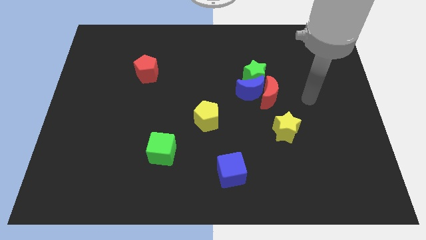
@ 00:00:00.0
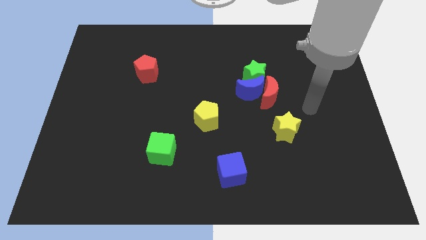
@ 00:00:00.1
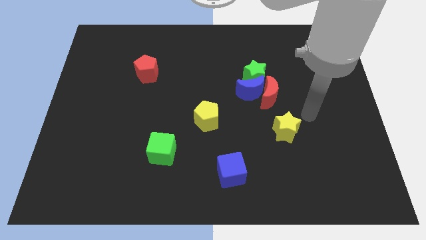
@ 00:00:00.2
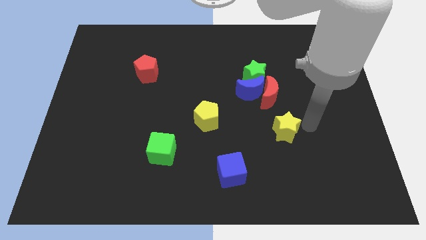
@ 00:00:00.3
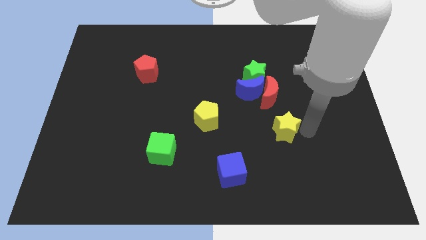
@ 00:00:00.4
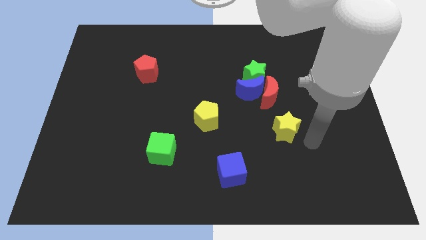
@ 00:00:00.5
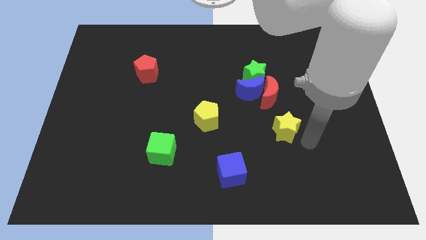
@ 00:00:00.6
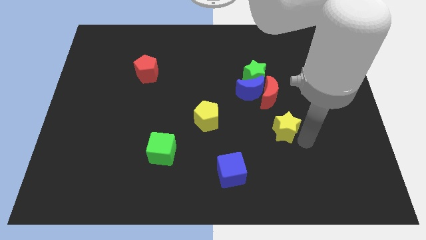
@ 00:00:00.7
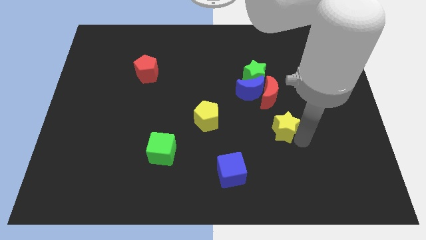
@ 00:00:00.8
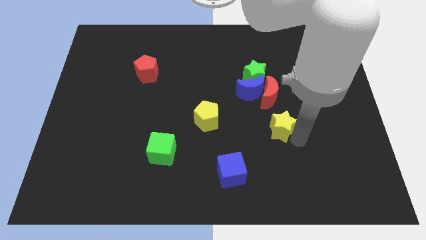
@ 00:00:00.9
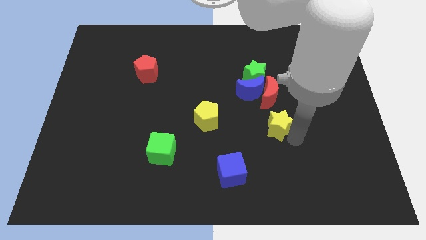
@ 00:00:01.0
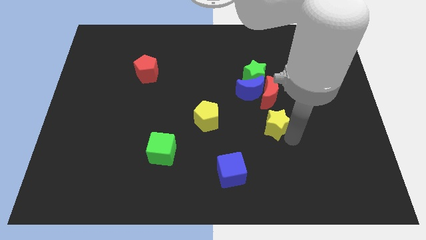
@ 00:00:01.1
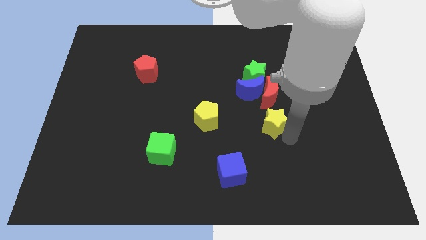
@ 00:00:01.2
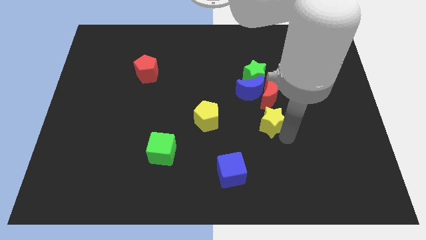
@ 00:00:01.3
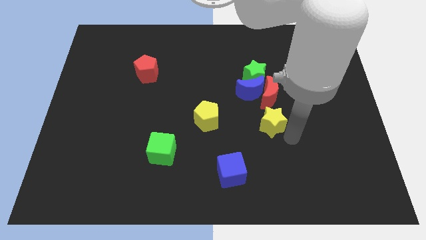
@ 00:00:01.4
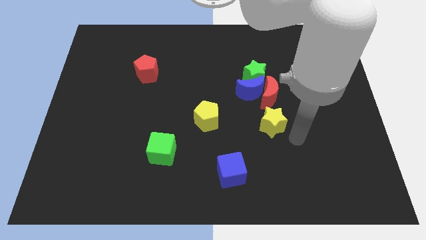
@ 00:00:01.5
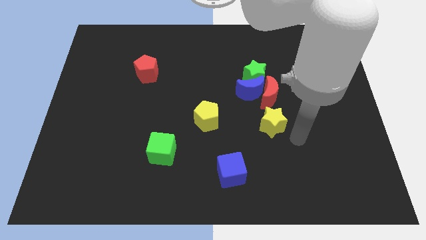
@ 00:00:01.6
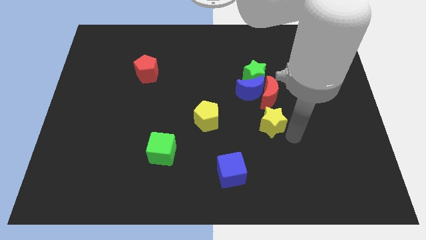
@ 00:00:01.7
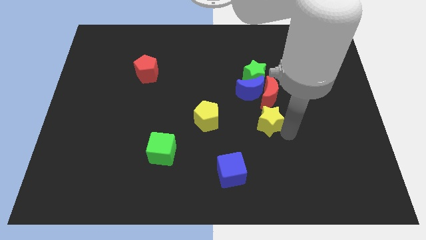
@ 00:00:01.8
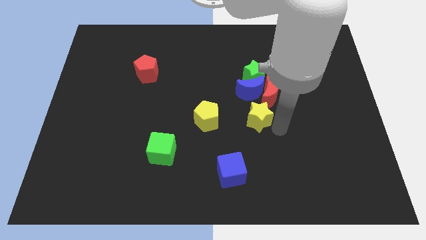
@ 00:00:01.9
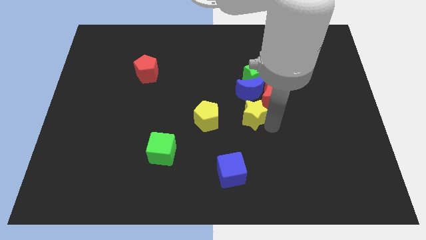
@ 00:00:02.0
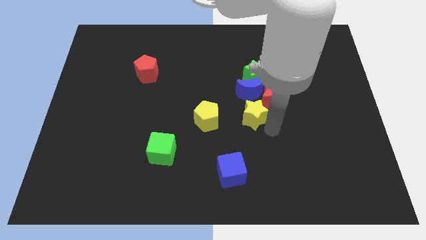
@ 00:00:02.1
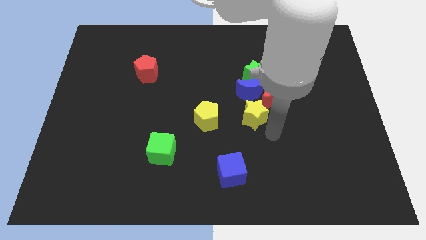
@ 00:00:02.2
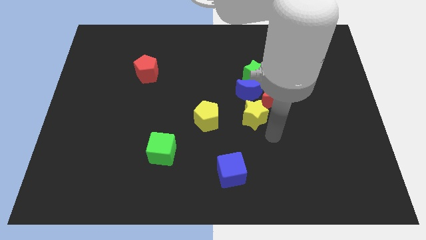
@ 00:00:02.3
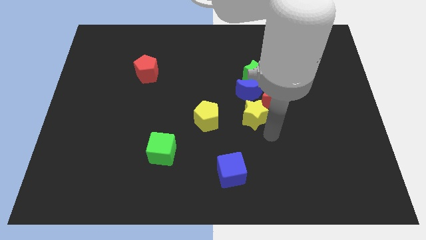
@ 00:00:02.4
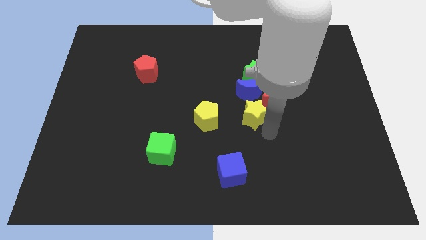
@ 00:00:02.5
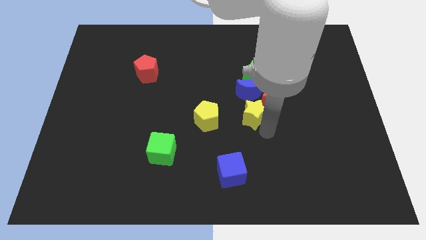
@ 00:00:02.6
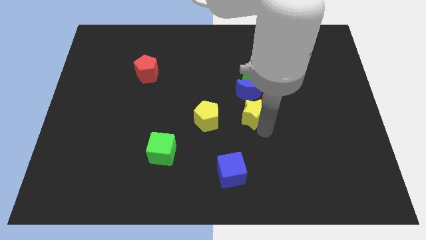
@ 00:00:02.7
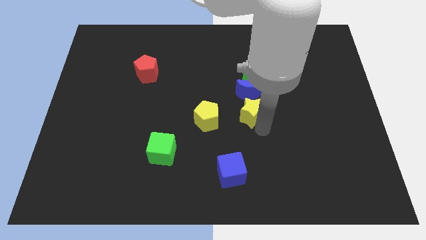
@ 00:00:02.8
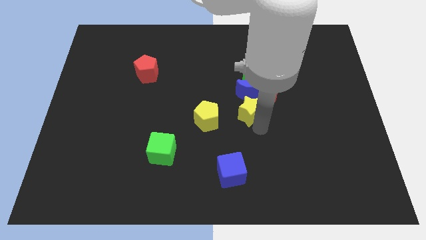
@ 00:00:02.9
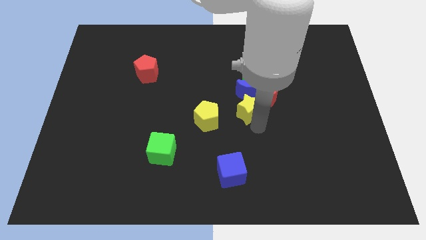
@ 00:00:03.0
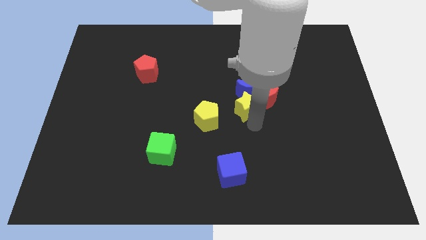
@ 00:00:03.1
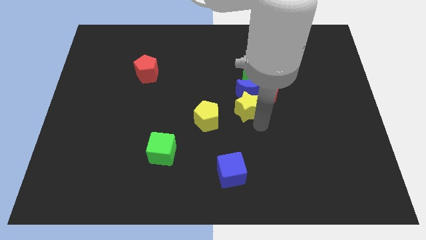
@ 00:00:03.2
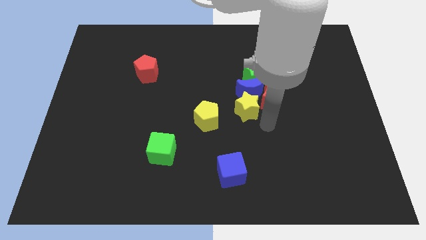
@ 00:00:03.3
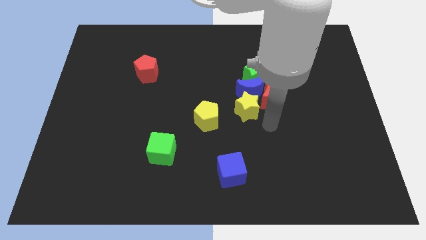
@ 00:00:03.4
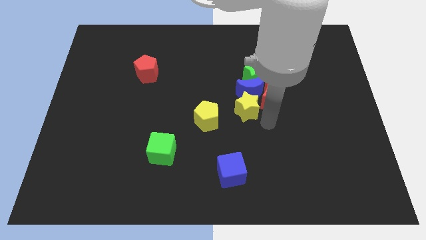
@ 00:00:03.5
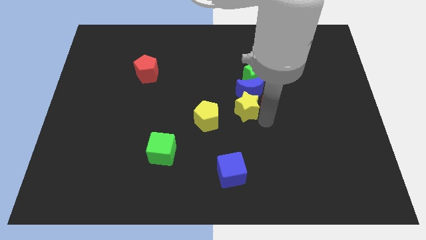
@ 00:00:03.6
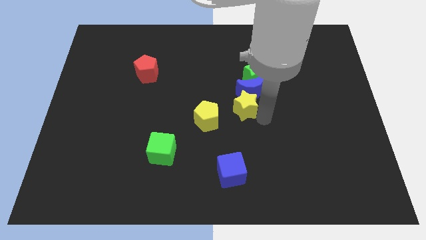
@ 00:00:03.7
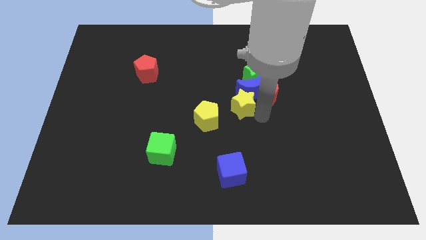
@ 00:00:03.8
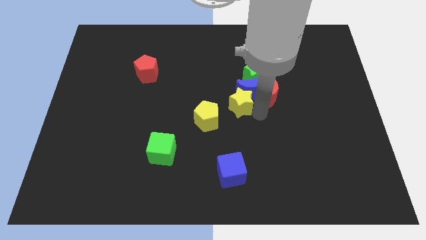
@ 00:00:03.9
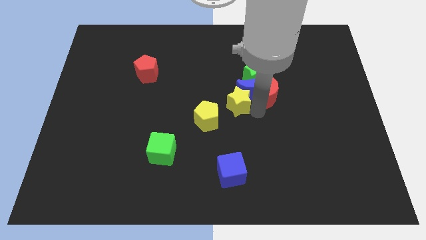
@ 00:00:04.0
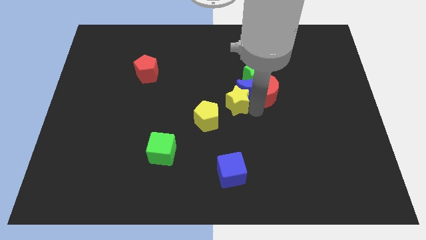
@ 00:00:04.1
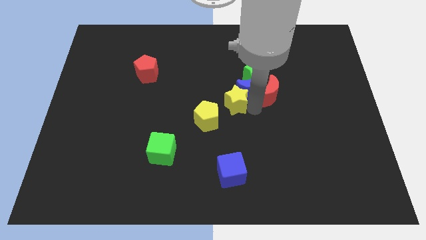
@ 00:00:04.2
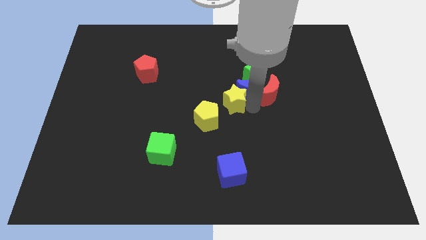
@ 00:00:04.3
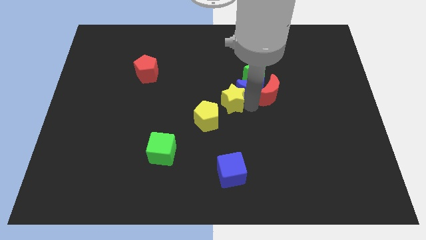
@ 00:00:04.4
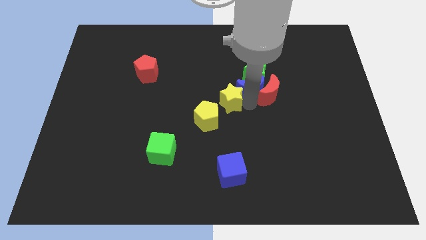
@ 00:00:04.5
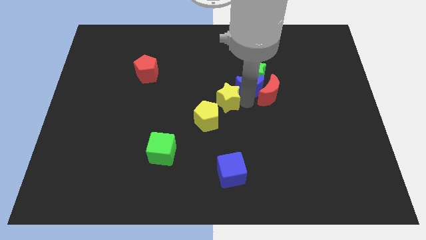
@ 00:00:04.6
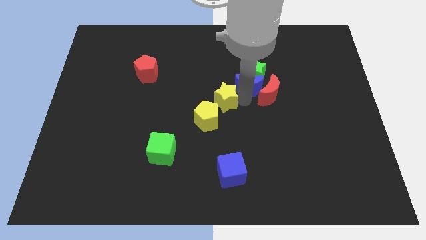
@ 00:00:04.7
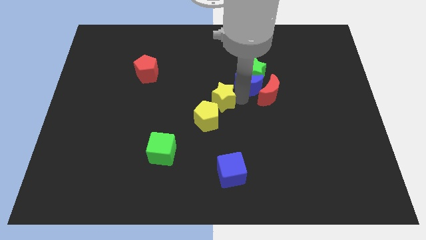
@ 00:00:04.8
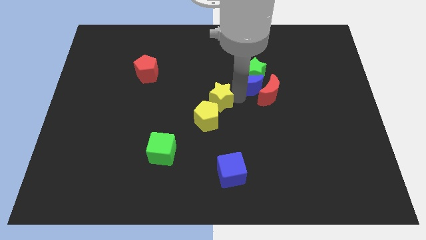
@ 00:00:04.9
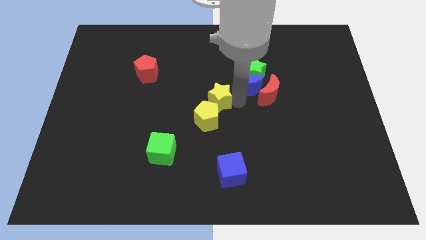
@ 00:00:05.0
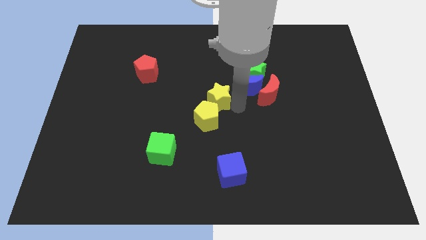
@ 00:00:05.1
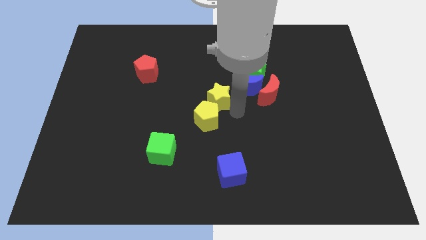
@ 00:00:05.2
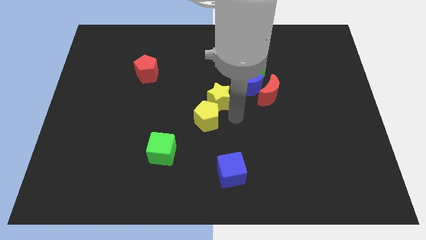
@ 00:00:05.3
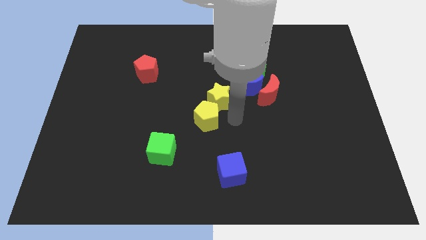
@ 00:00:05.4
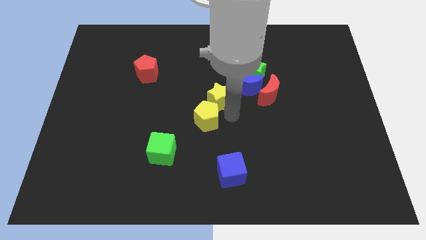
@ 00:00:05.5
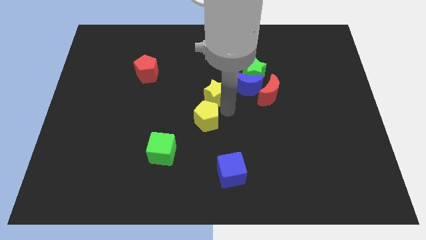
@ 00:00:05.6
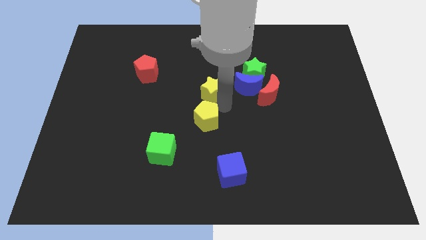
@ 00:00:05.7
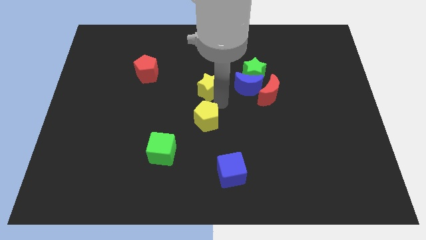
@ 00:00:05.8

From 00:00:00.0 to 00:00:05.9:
move the yellow star up and left diagonally

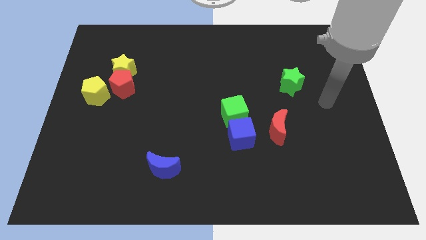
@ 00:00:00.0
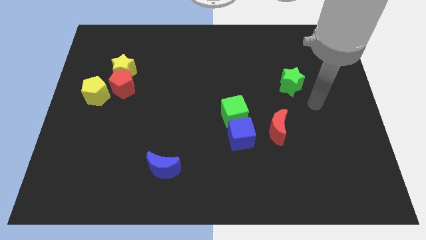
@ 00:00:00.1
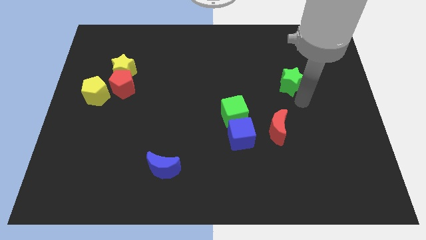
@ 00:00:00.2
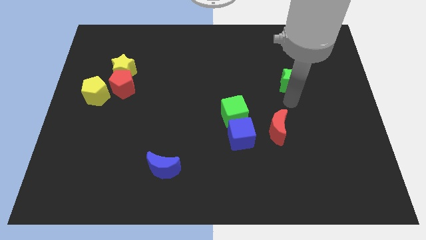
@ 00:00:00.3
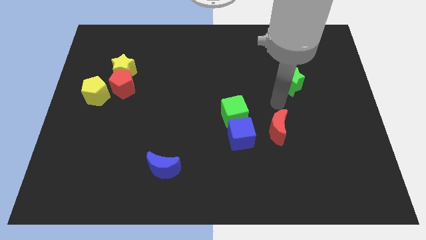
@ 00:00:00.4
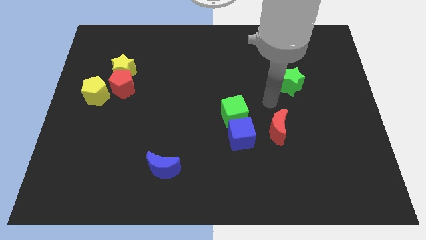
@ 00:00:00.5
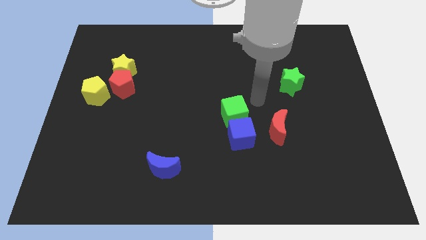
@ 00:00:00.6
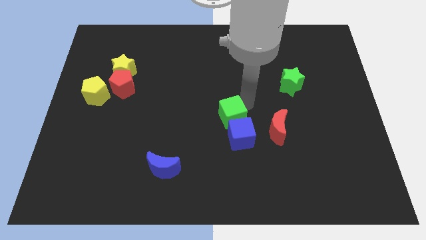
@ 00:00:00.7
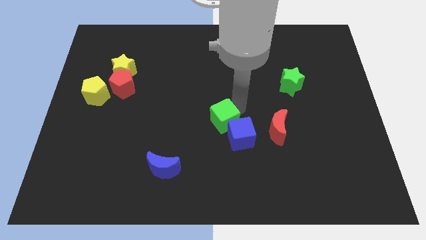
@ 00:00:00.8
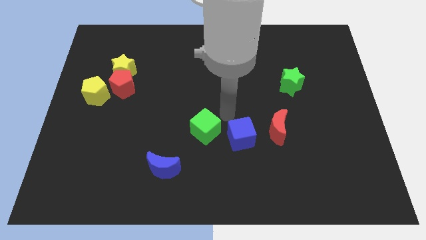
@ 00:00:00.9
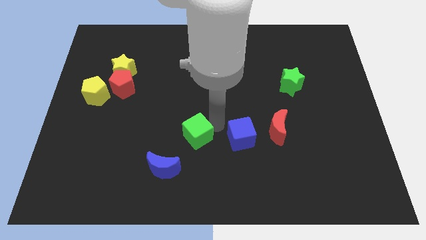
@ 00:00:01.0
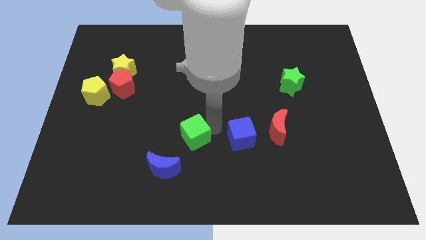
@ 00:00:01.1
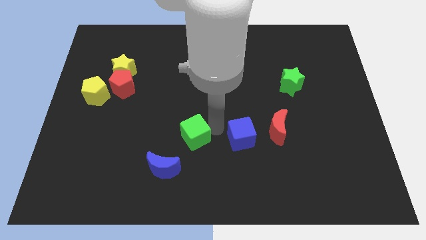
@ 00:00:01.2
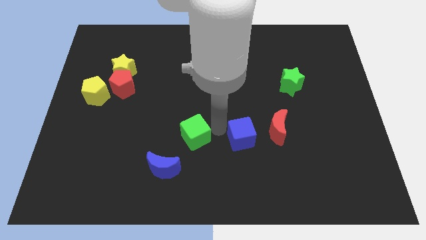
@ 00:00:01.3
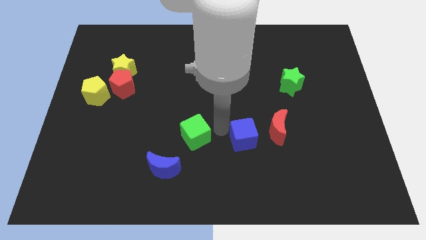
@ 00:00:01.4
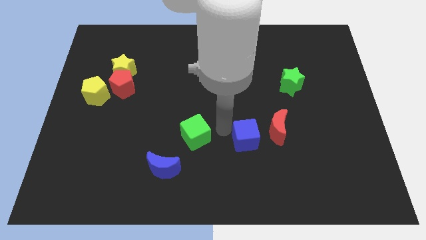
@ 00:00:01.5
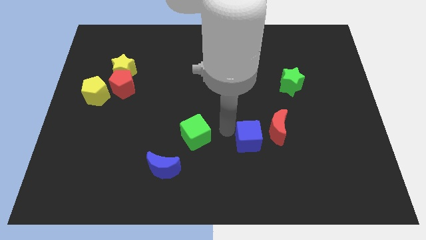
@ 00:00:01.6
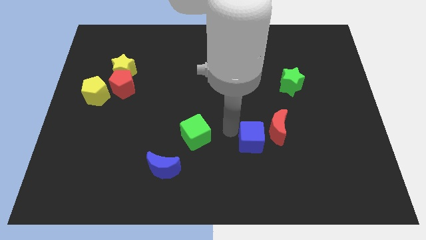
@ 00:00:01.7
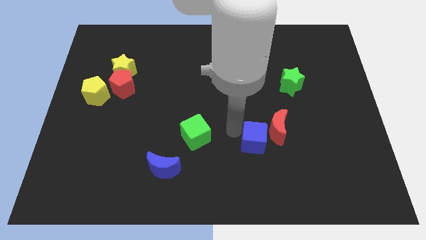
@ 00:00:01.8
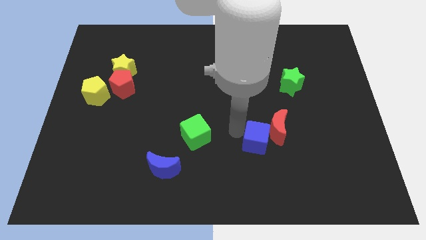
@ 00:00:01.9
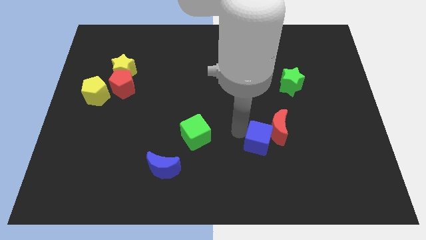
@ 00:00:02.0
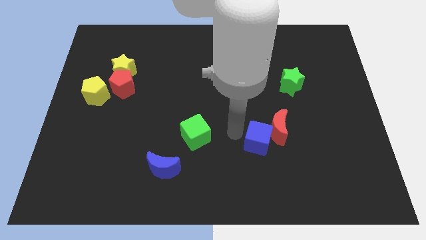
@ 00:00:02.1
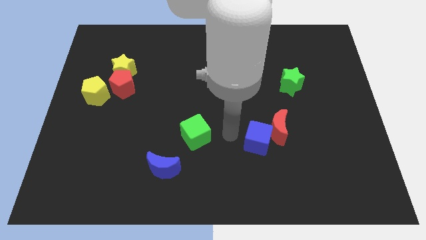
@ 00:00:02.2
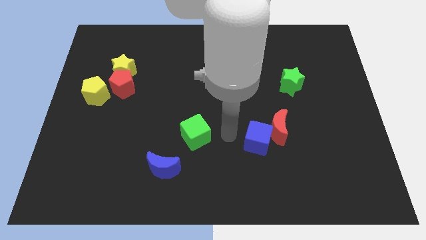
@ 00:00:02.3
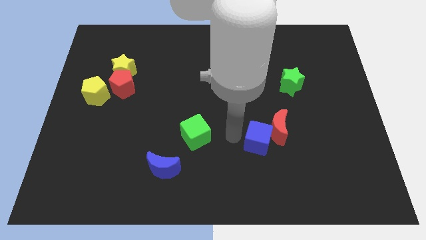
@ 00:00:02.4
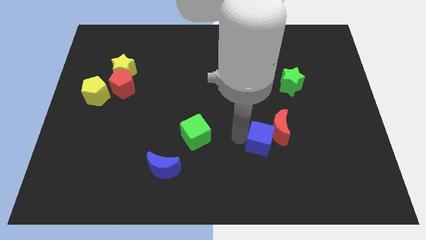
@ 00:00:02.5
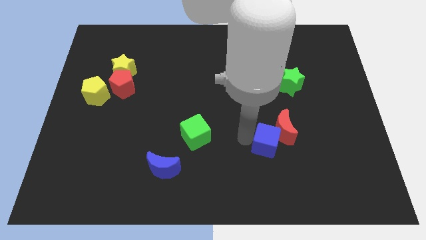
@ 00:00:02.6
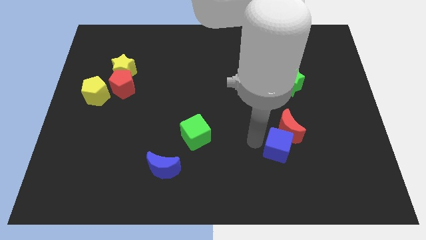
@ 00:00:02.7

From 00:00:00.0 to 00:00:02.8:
slide the blue cube slightly right
